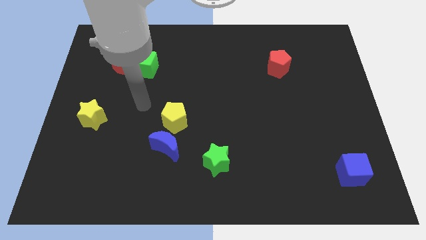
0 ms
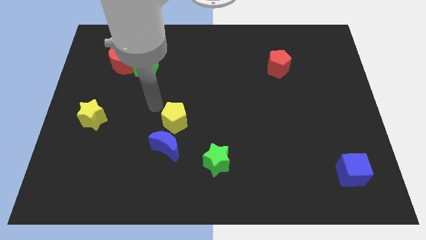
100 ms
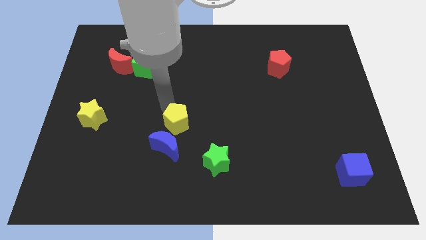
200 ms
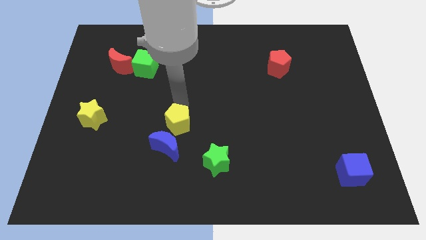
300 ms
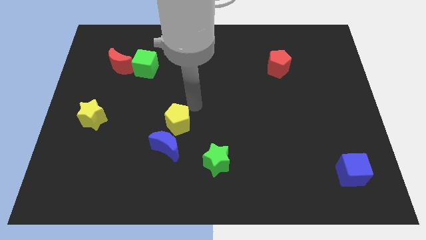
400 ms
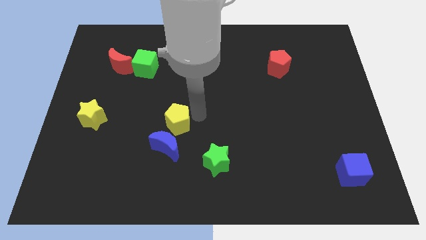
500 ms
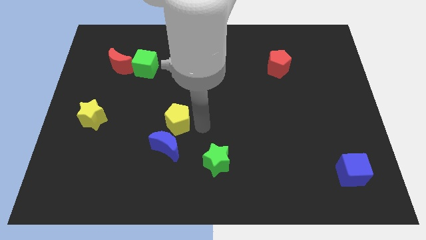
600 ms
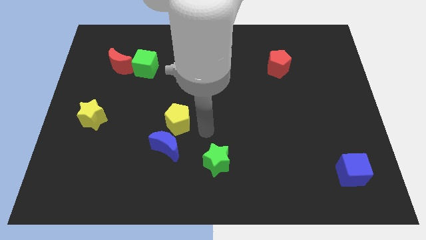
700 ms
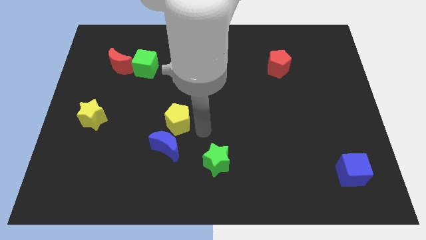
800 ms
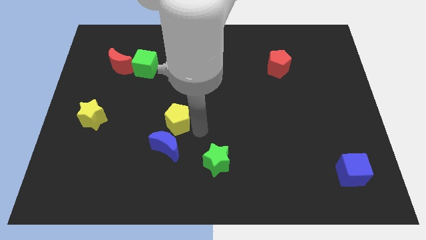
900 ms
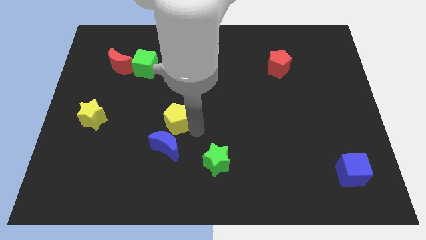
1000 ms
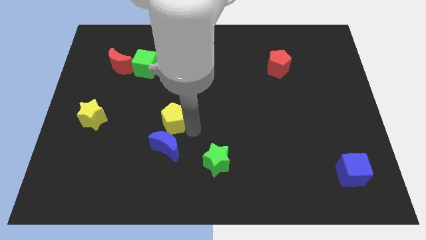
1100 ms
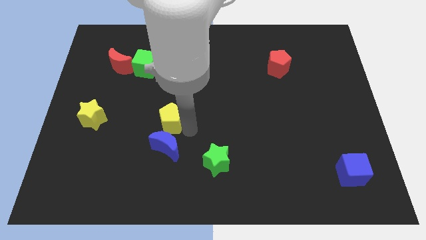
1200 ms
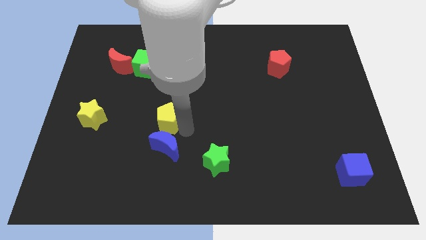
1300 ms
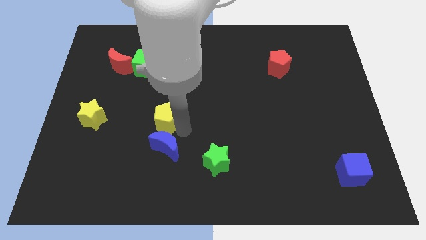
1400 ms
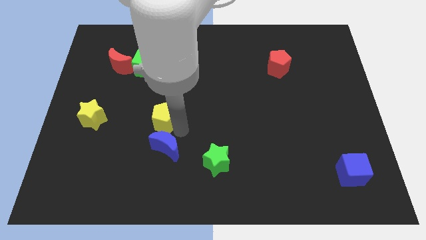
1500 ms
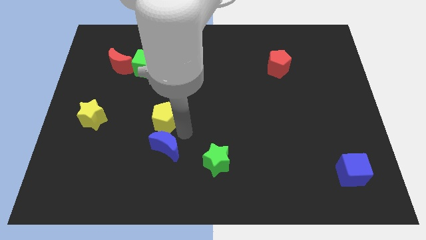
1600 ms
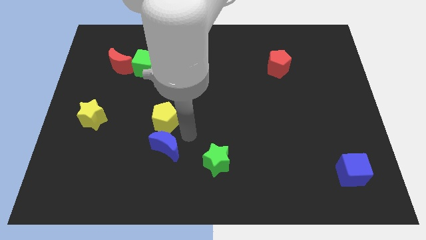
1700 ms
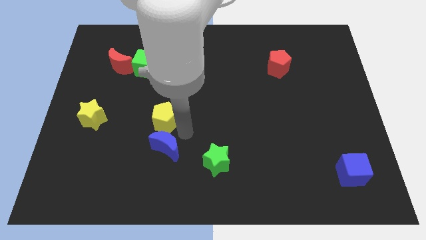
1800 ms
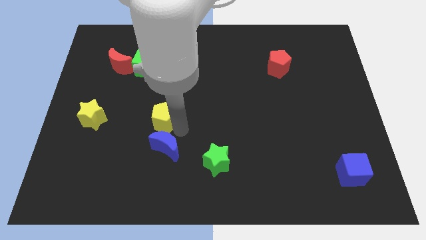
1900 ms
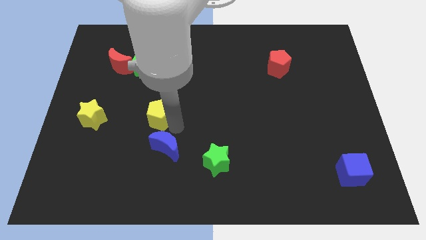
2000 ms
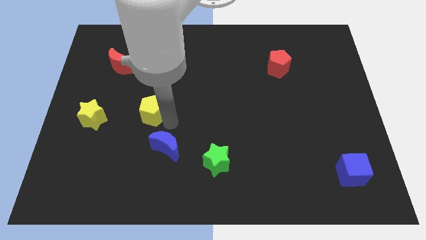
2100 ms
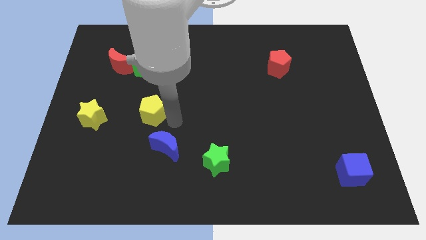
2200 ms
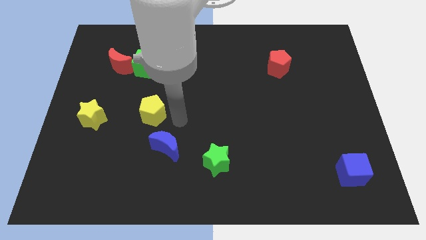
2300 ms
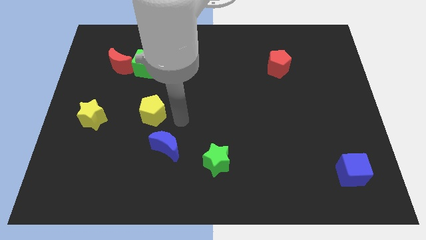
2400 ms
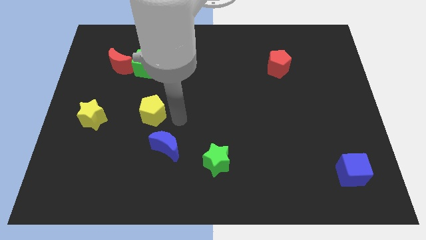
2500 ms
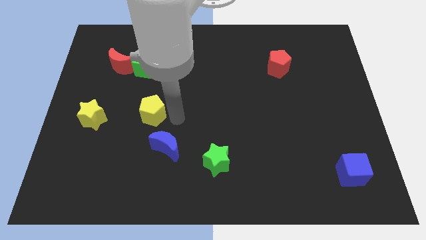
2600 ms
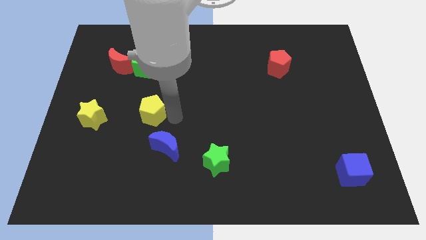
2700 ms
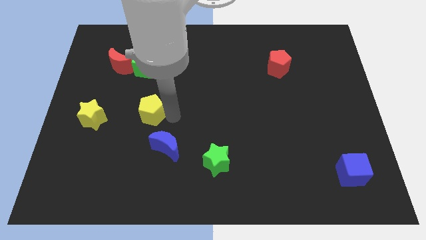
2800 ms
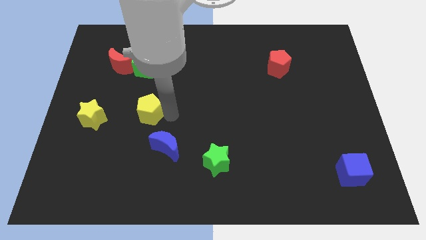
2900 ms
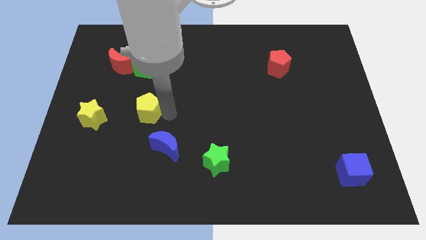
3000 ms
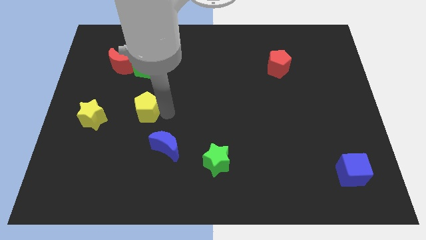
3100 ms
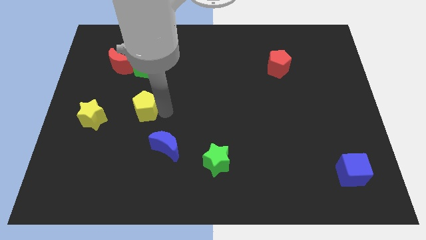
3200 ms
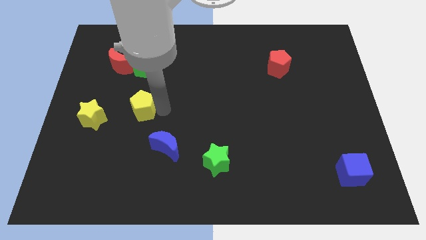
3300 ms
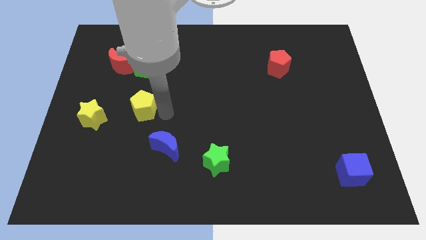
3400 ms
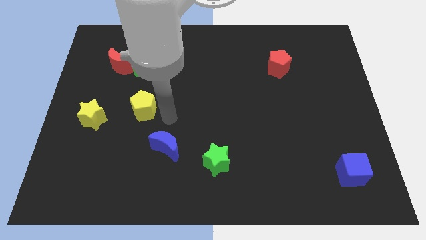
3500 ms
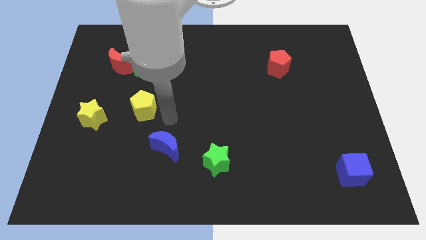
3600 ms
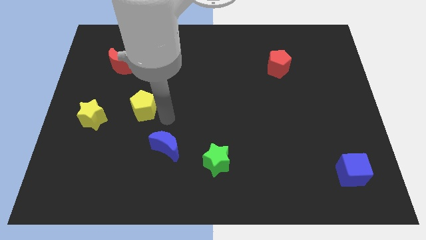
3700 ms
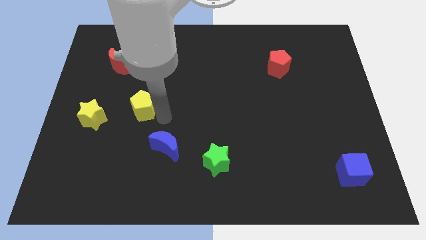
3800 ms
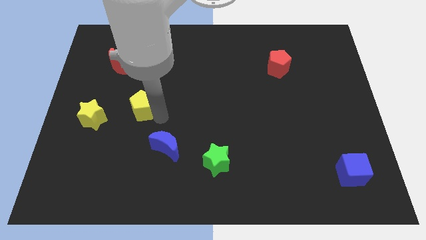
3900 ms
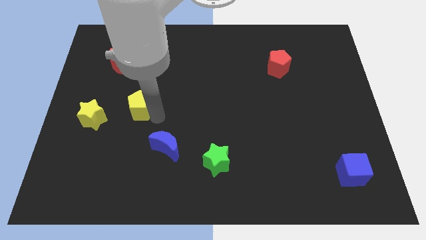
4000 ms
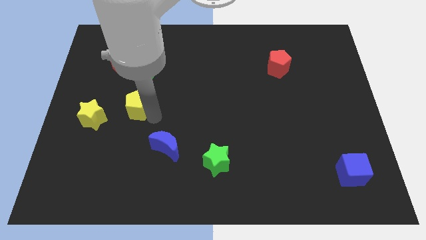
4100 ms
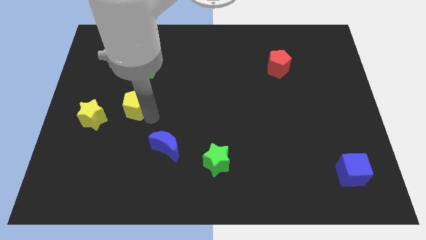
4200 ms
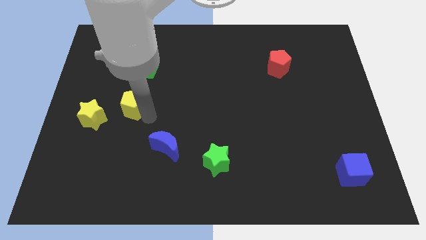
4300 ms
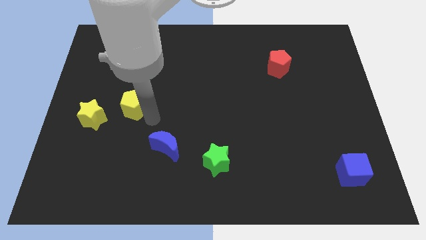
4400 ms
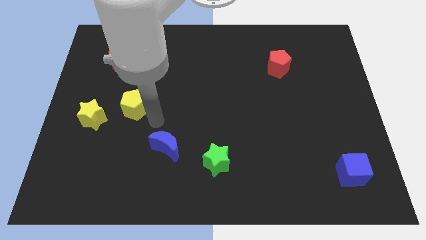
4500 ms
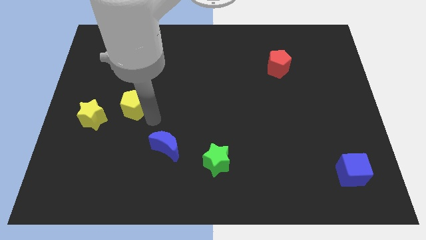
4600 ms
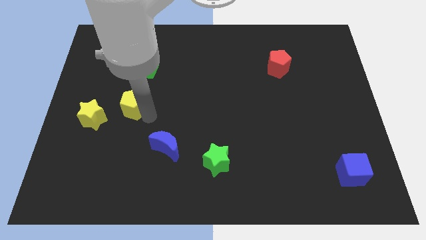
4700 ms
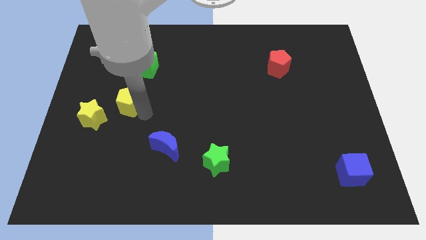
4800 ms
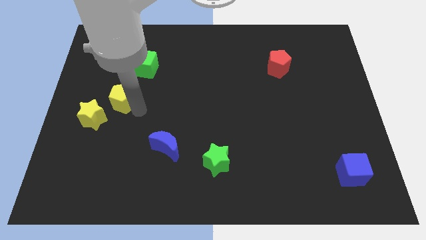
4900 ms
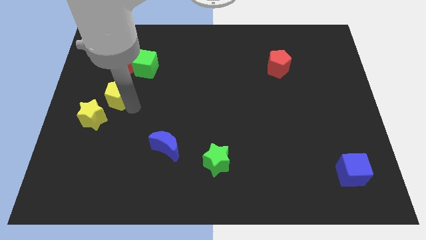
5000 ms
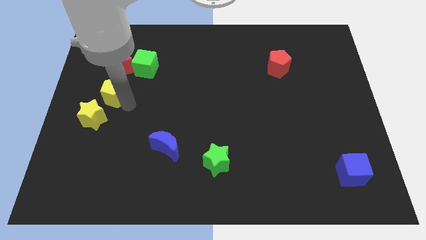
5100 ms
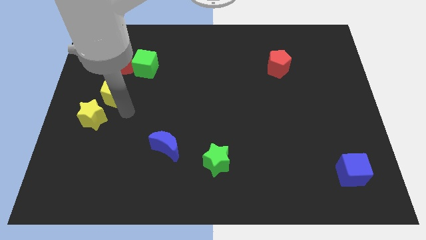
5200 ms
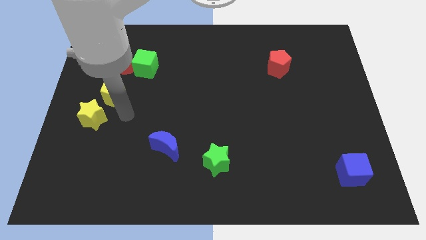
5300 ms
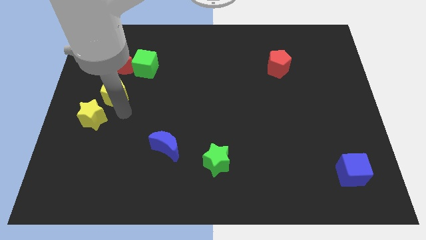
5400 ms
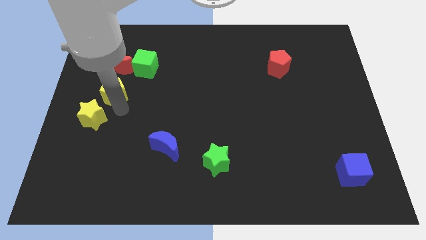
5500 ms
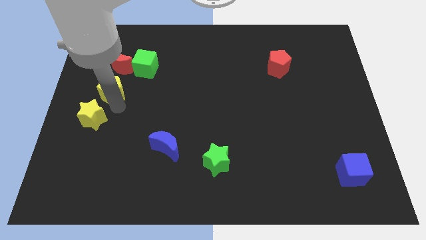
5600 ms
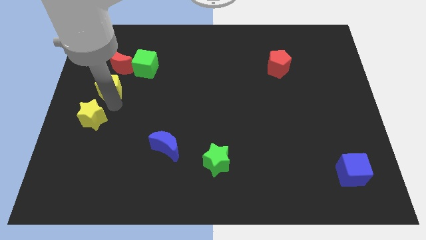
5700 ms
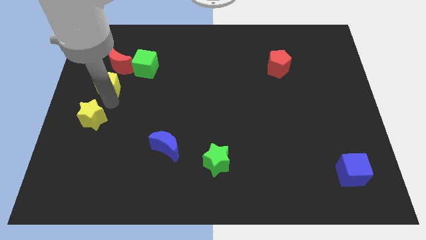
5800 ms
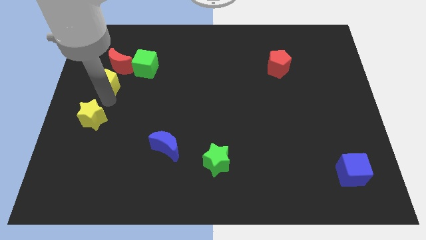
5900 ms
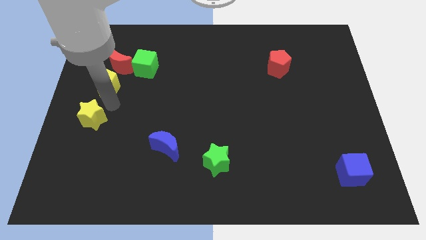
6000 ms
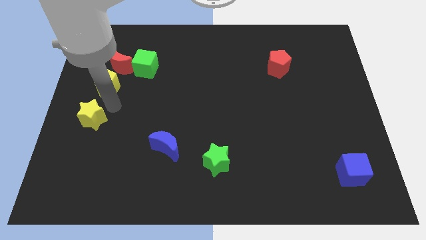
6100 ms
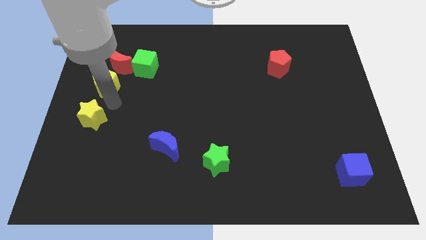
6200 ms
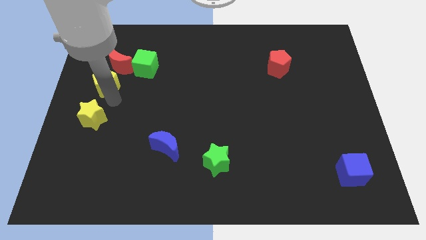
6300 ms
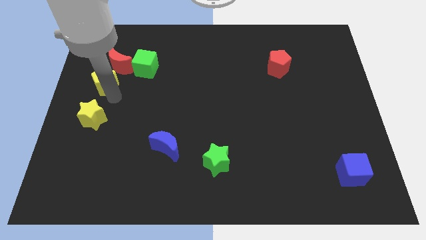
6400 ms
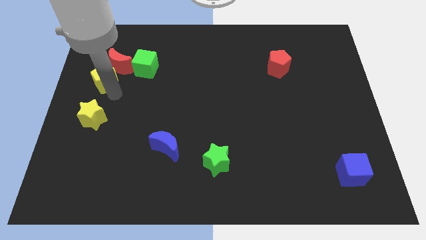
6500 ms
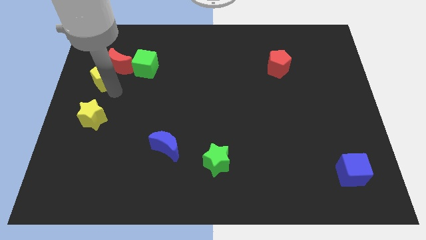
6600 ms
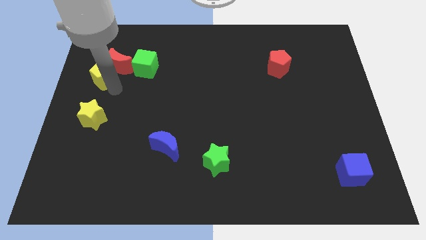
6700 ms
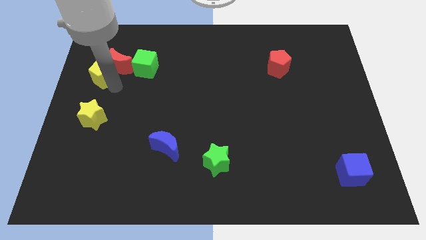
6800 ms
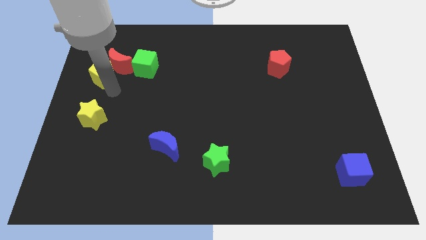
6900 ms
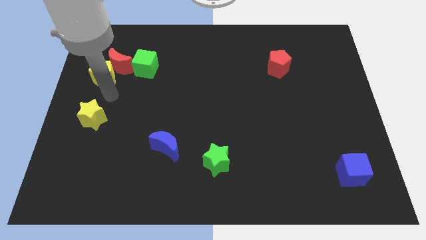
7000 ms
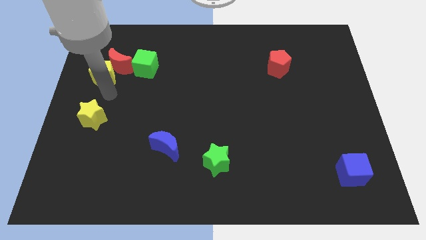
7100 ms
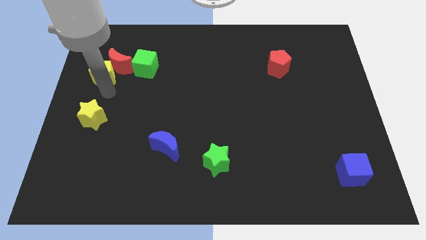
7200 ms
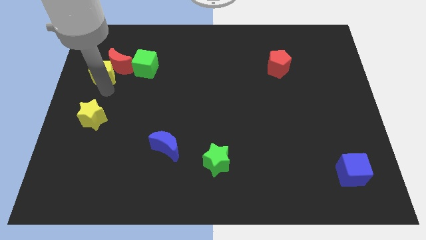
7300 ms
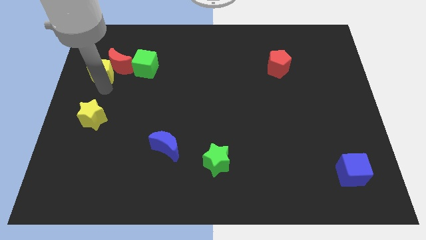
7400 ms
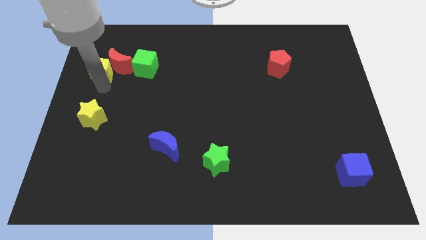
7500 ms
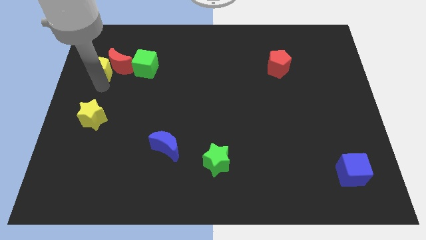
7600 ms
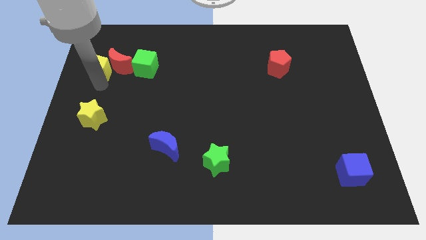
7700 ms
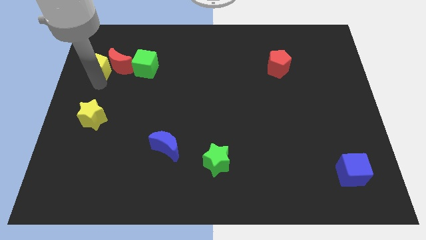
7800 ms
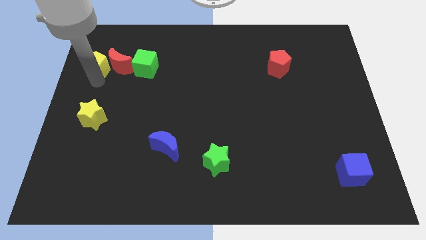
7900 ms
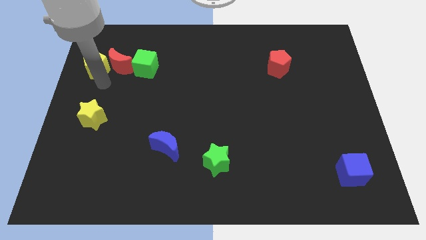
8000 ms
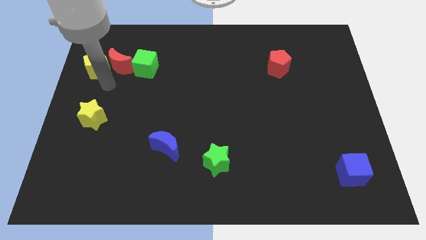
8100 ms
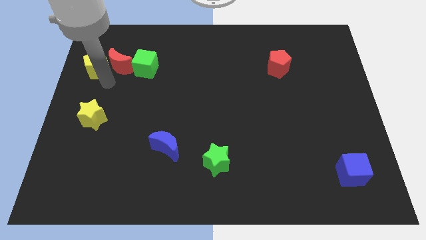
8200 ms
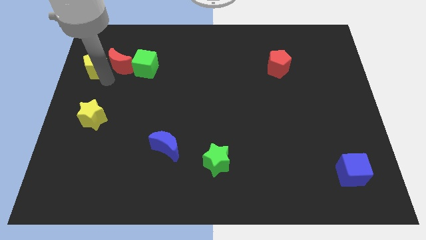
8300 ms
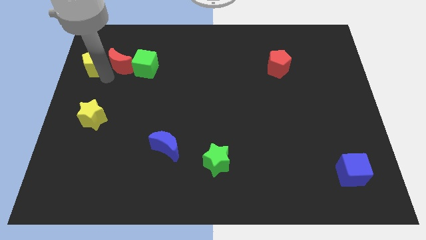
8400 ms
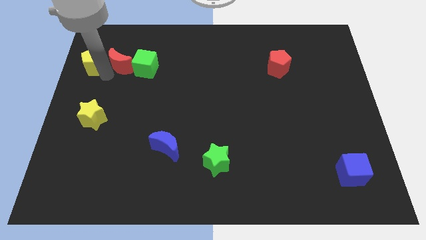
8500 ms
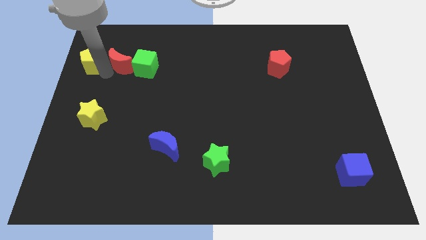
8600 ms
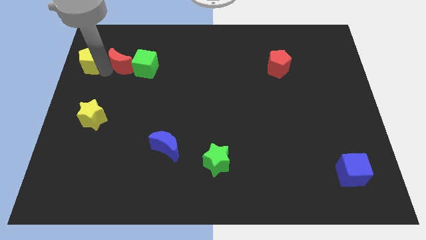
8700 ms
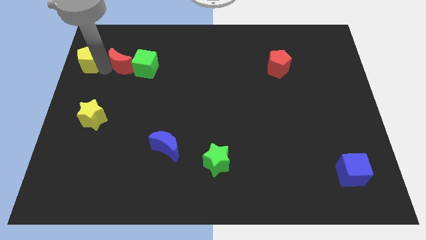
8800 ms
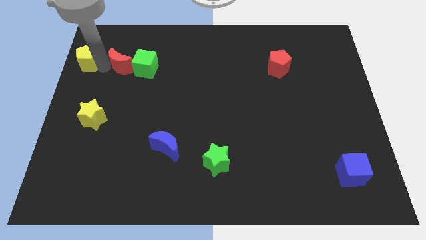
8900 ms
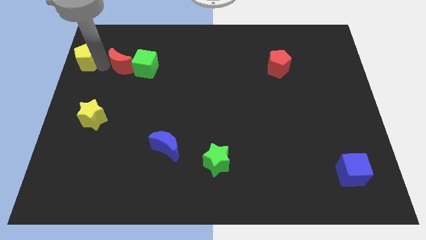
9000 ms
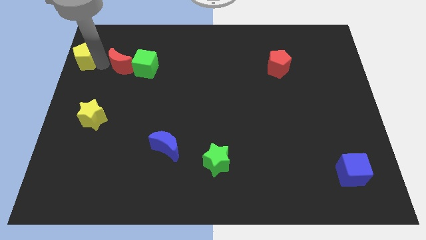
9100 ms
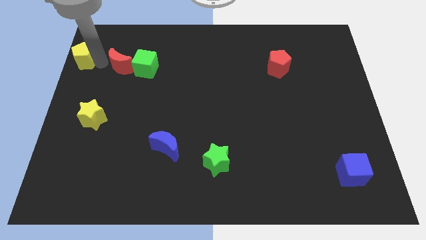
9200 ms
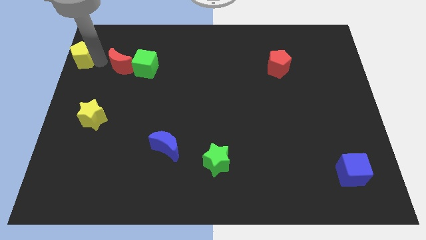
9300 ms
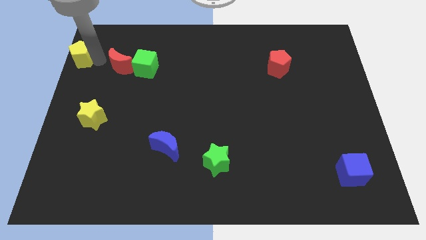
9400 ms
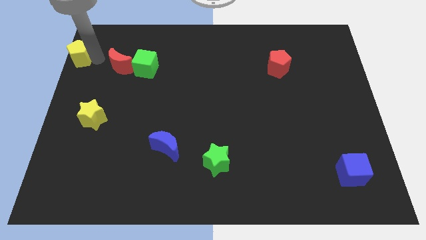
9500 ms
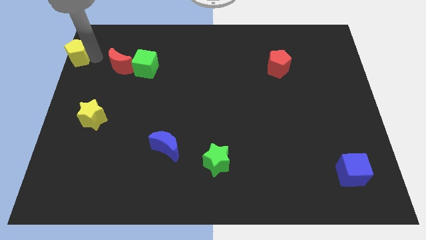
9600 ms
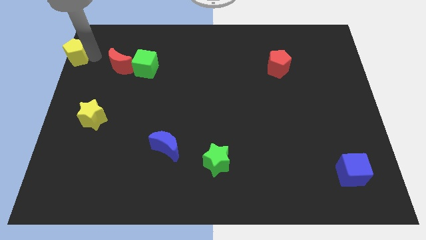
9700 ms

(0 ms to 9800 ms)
push the yellow pentagon to the top left of the board
